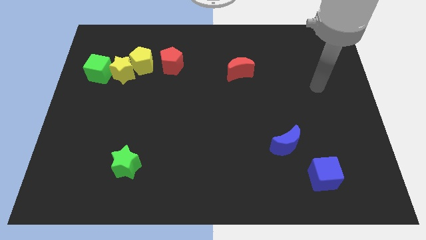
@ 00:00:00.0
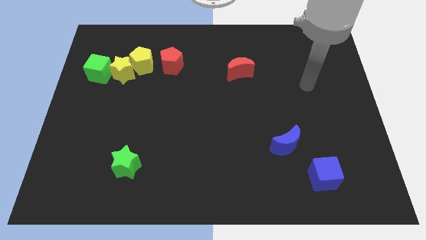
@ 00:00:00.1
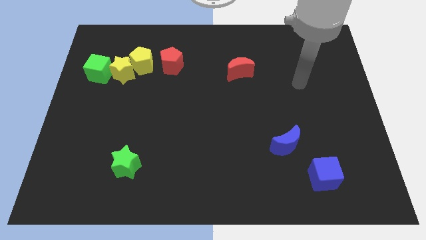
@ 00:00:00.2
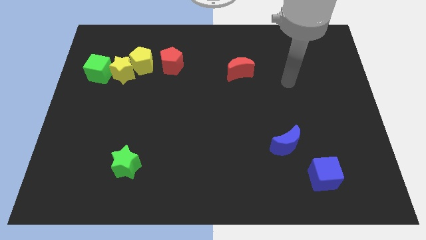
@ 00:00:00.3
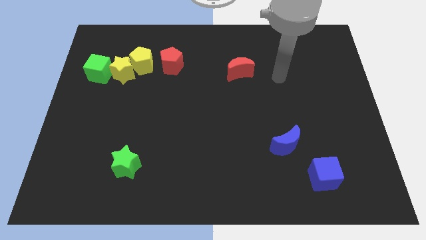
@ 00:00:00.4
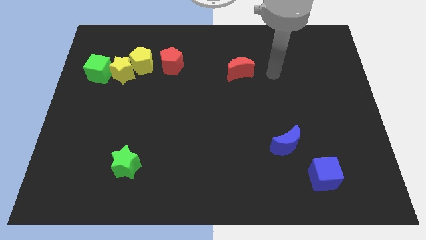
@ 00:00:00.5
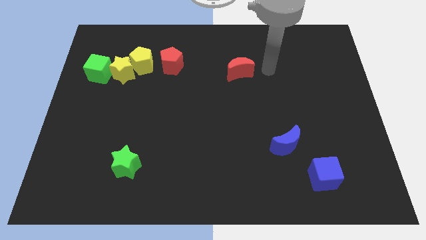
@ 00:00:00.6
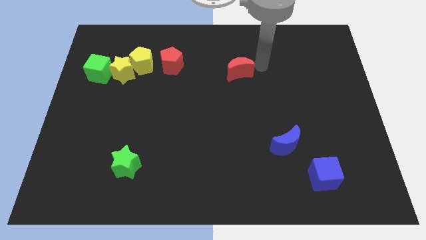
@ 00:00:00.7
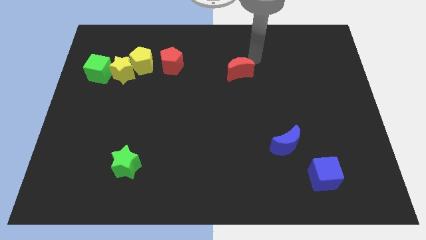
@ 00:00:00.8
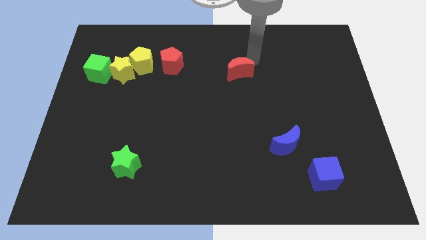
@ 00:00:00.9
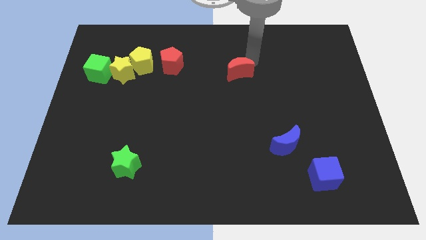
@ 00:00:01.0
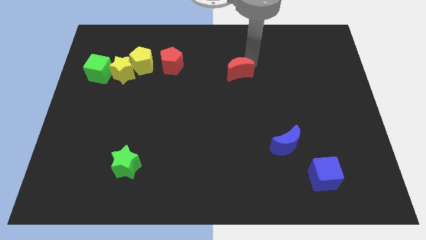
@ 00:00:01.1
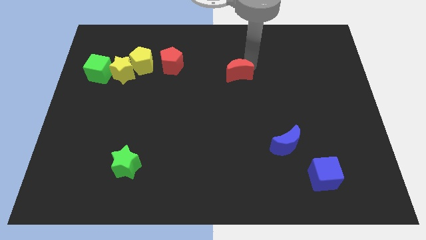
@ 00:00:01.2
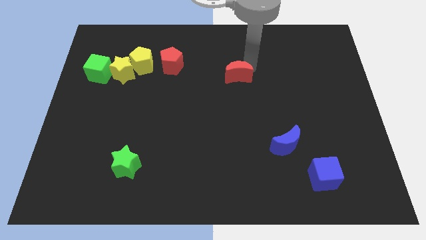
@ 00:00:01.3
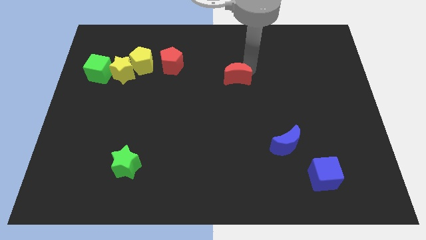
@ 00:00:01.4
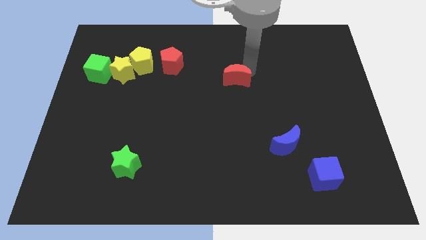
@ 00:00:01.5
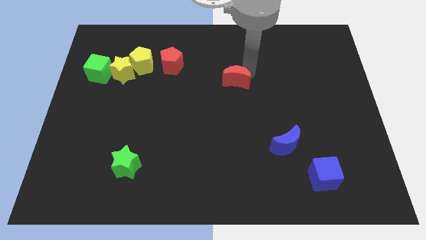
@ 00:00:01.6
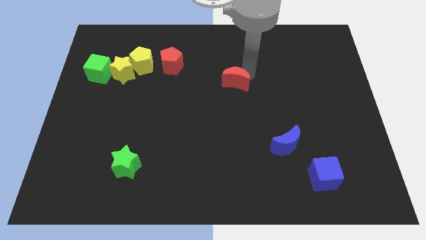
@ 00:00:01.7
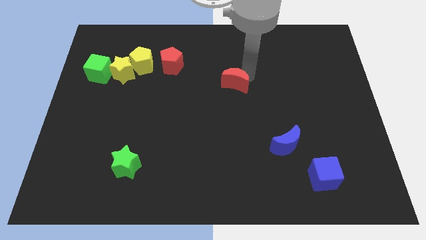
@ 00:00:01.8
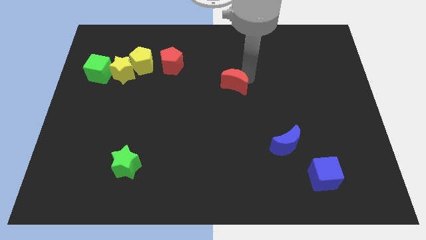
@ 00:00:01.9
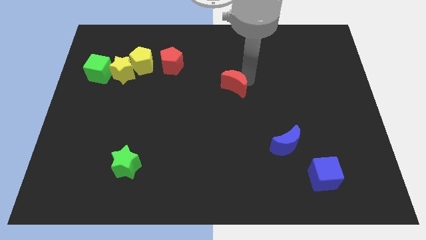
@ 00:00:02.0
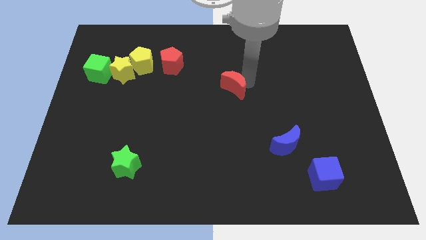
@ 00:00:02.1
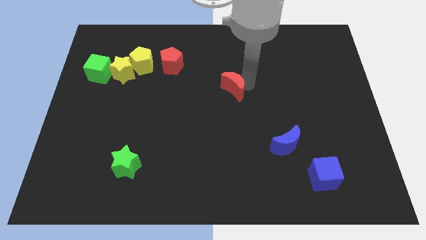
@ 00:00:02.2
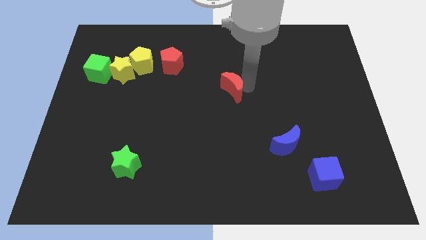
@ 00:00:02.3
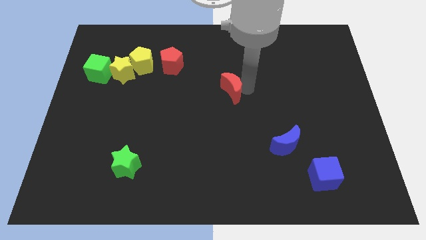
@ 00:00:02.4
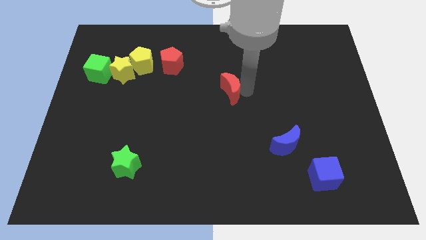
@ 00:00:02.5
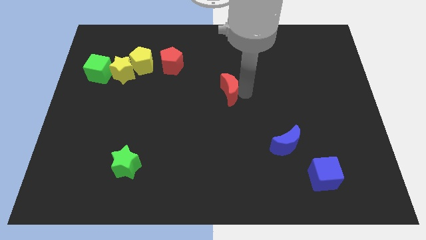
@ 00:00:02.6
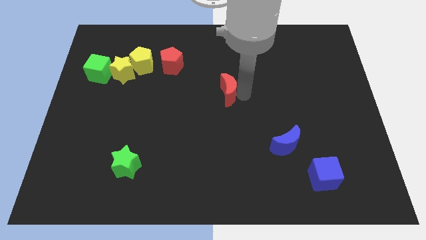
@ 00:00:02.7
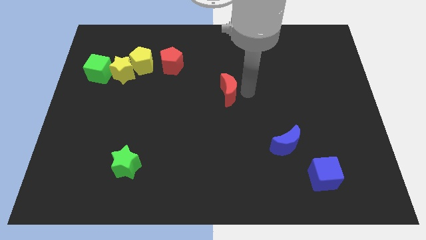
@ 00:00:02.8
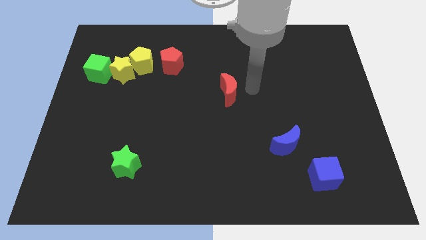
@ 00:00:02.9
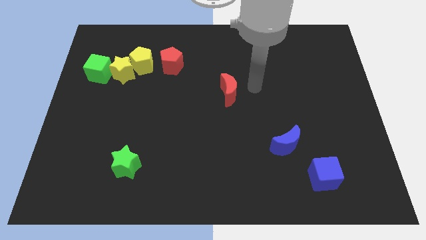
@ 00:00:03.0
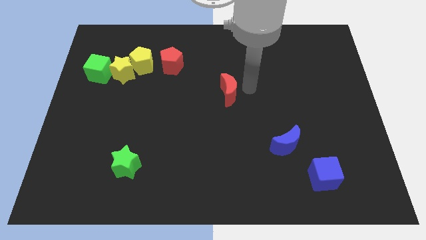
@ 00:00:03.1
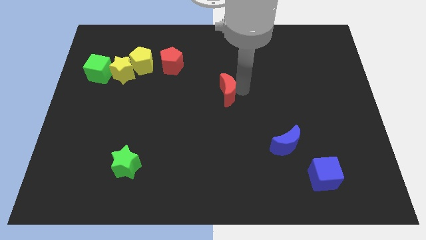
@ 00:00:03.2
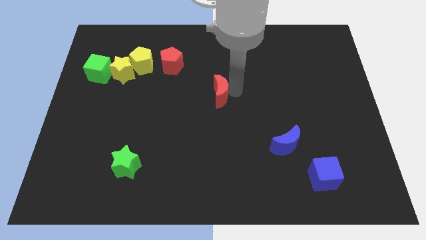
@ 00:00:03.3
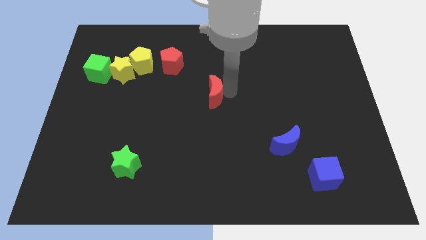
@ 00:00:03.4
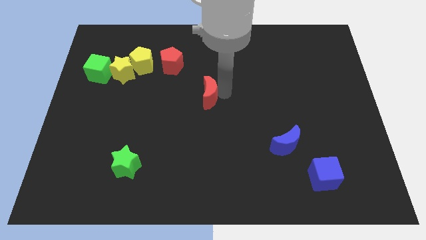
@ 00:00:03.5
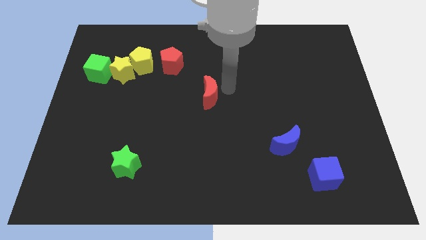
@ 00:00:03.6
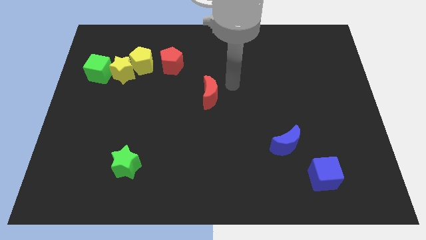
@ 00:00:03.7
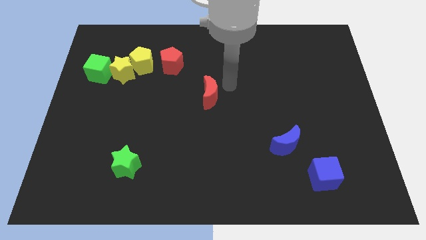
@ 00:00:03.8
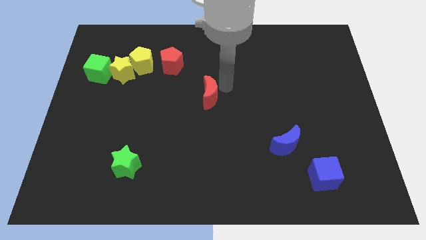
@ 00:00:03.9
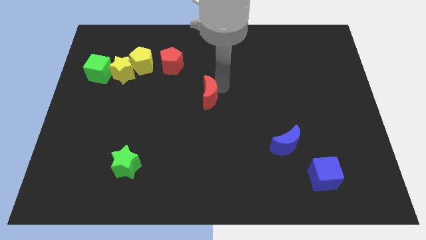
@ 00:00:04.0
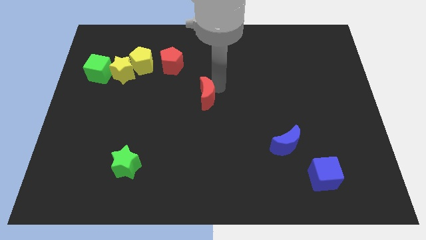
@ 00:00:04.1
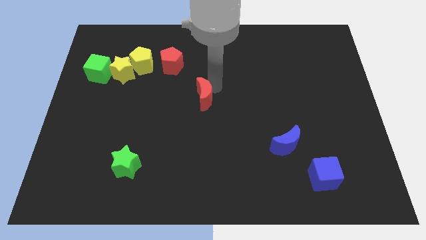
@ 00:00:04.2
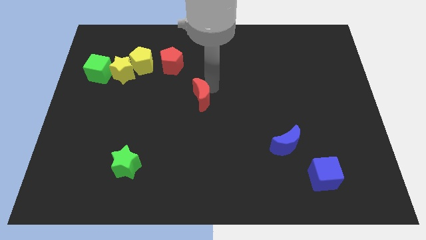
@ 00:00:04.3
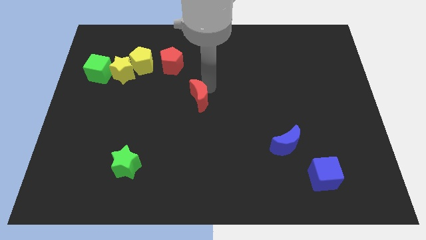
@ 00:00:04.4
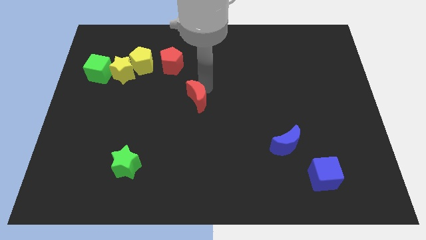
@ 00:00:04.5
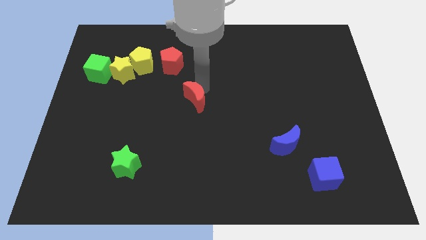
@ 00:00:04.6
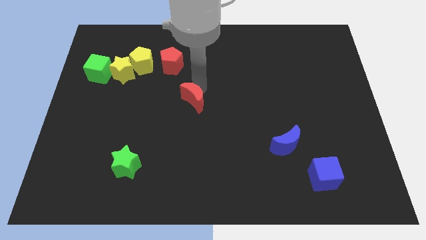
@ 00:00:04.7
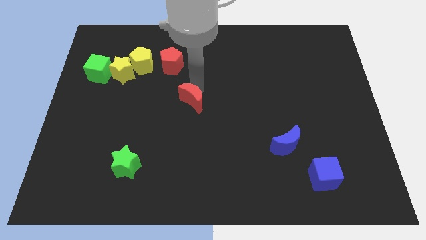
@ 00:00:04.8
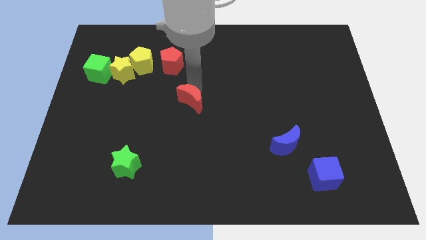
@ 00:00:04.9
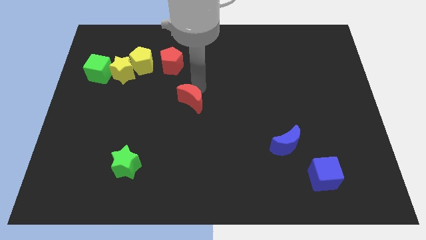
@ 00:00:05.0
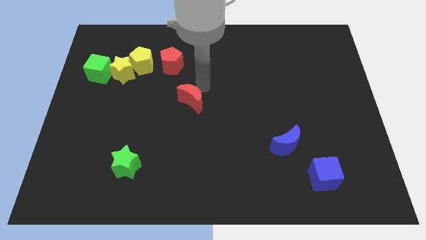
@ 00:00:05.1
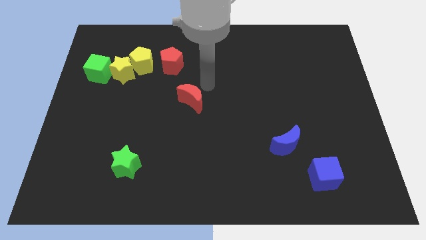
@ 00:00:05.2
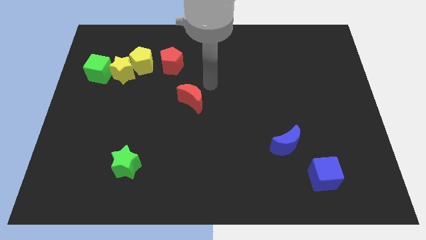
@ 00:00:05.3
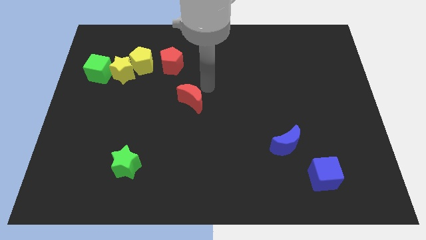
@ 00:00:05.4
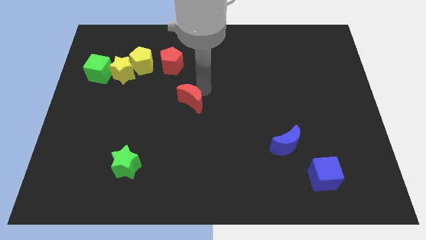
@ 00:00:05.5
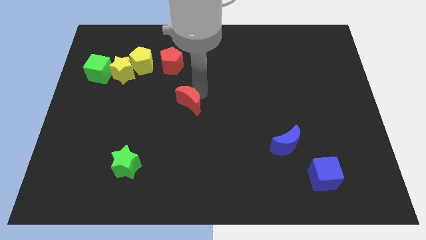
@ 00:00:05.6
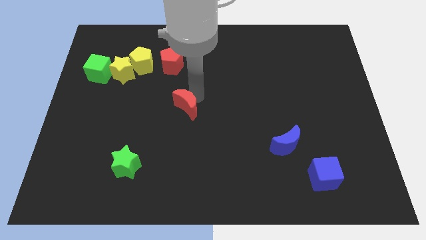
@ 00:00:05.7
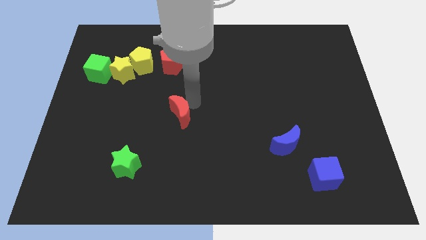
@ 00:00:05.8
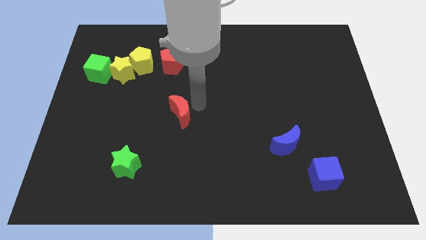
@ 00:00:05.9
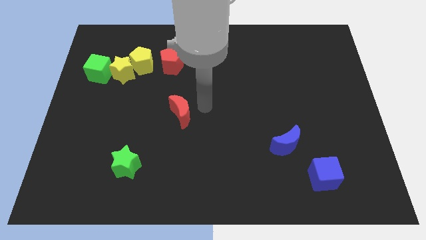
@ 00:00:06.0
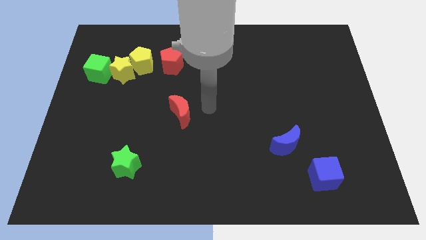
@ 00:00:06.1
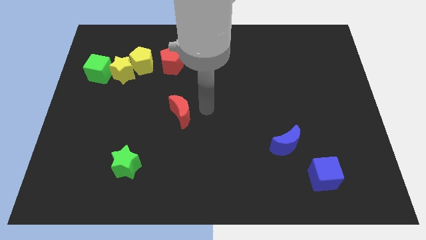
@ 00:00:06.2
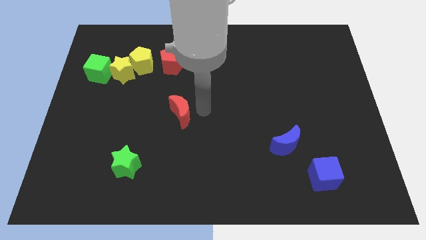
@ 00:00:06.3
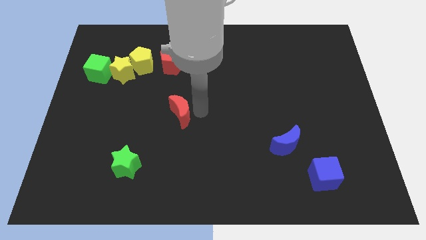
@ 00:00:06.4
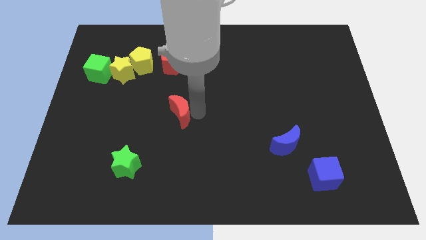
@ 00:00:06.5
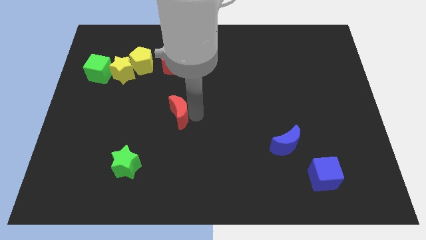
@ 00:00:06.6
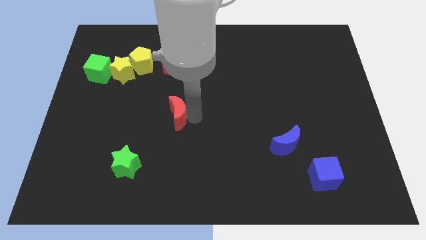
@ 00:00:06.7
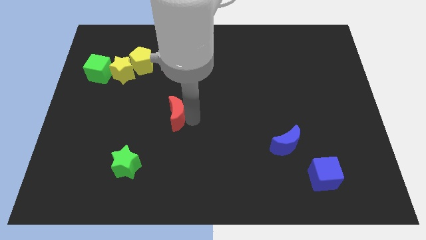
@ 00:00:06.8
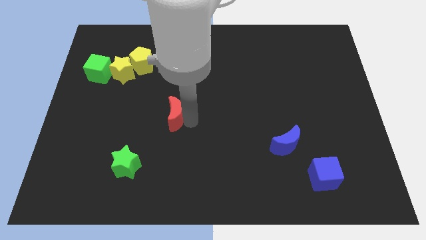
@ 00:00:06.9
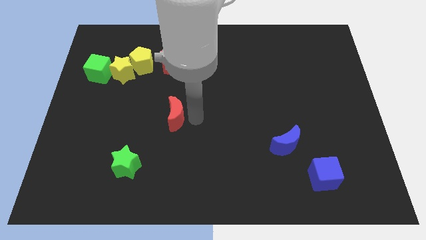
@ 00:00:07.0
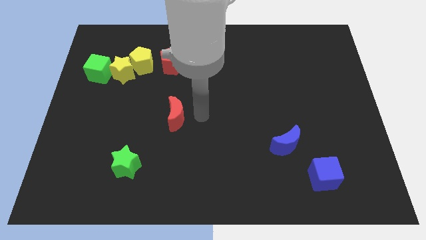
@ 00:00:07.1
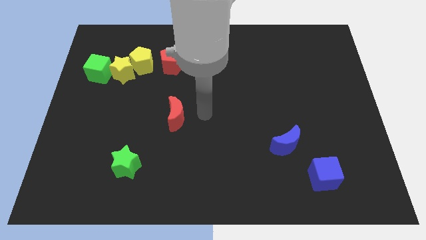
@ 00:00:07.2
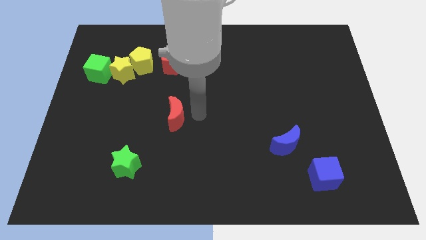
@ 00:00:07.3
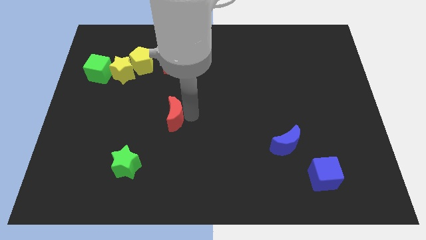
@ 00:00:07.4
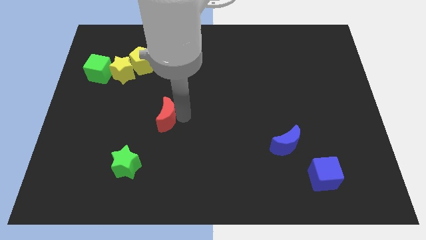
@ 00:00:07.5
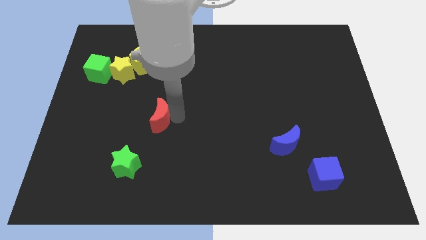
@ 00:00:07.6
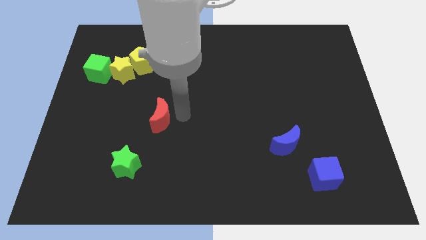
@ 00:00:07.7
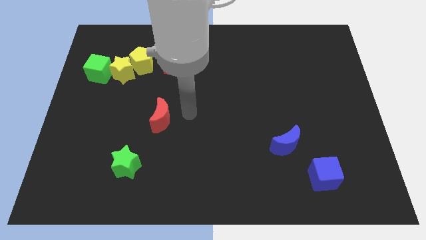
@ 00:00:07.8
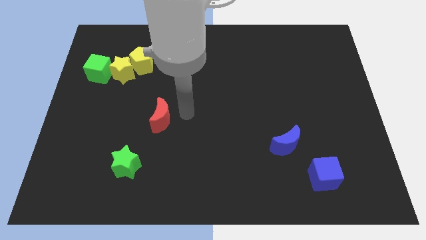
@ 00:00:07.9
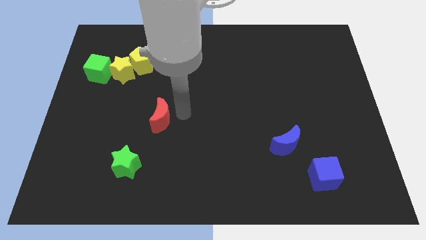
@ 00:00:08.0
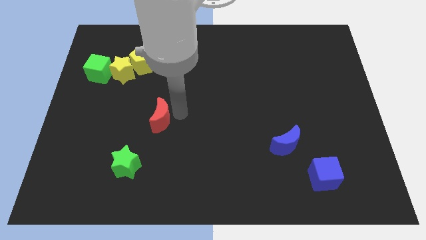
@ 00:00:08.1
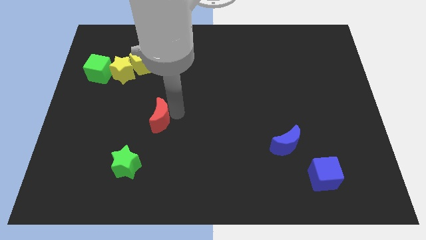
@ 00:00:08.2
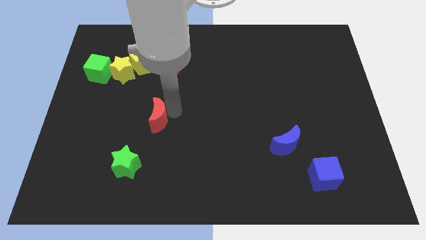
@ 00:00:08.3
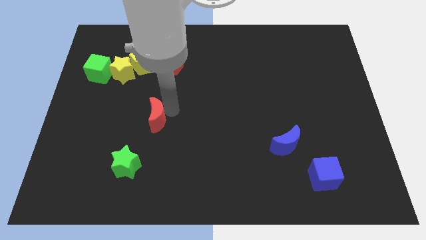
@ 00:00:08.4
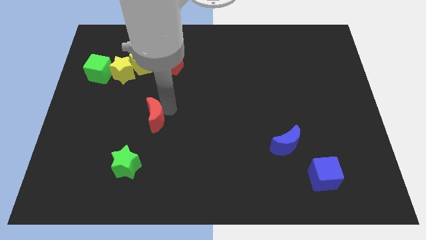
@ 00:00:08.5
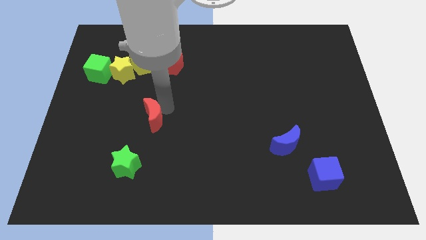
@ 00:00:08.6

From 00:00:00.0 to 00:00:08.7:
slide the red moon to the top side of the green star
